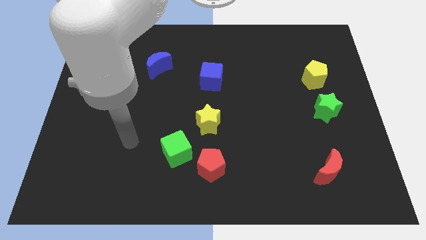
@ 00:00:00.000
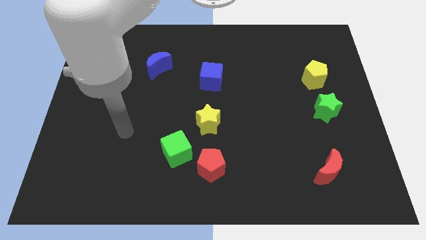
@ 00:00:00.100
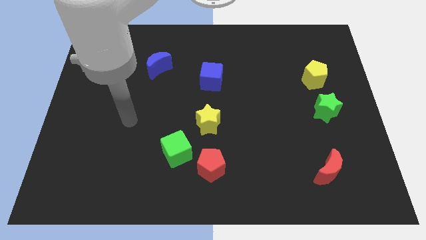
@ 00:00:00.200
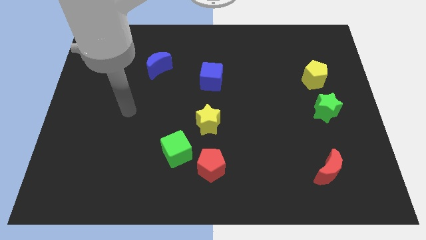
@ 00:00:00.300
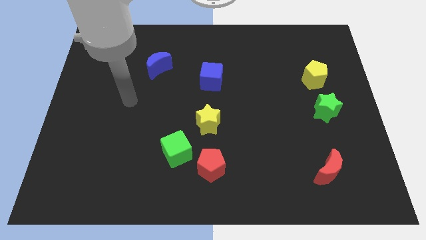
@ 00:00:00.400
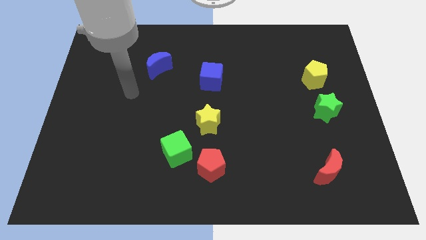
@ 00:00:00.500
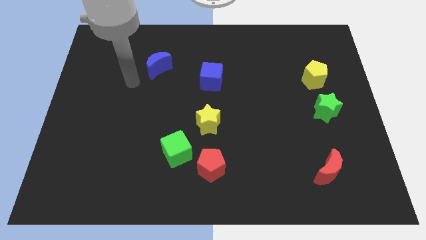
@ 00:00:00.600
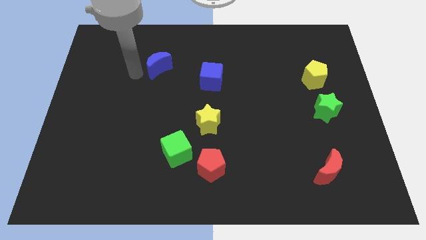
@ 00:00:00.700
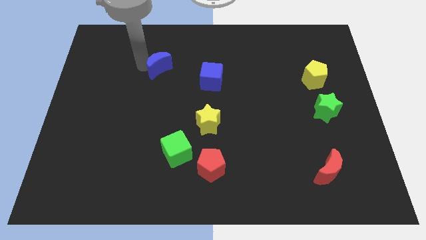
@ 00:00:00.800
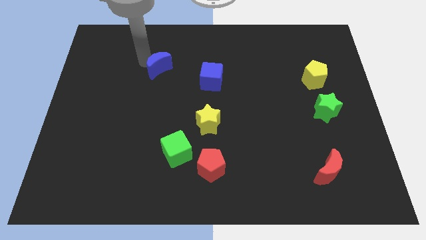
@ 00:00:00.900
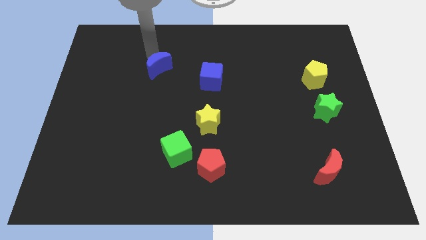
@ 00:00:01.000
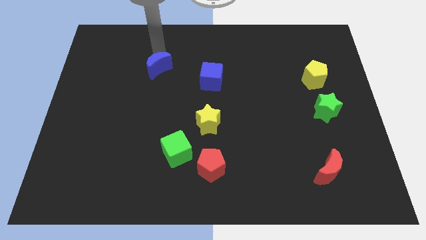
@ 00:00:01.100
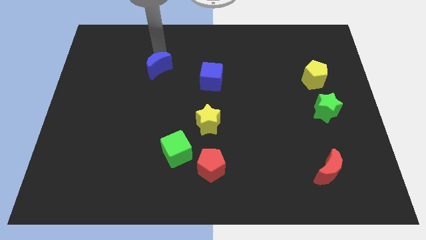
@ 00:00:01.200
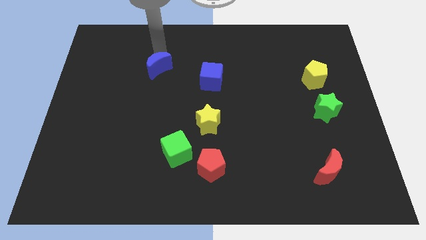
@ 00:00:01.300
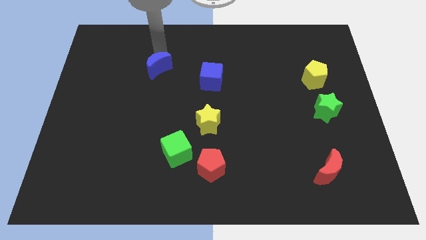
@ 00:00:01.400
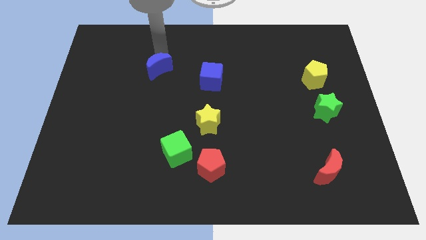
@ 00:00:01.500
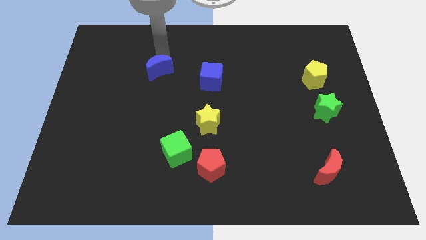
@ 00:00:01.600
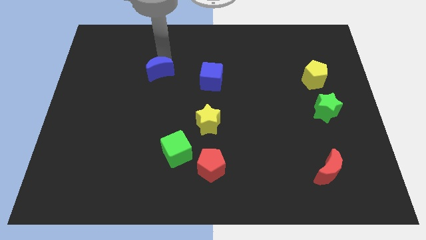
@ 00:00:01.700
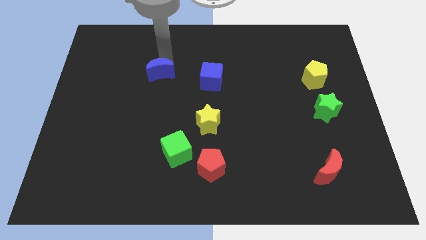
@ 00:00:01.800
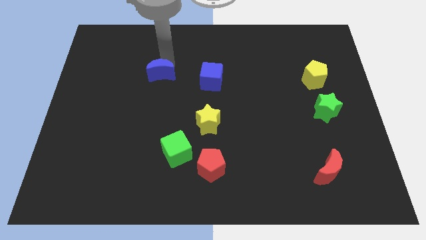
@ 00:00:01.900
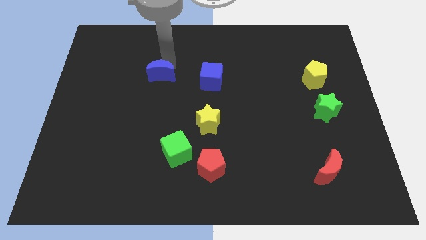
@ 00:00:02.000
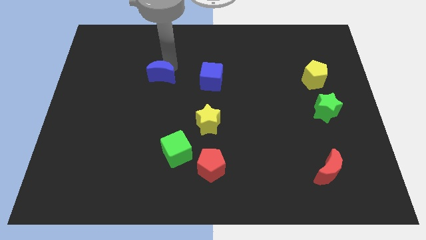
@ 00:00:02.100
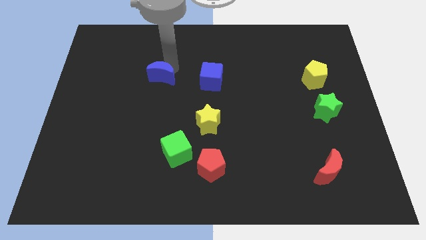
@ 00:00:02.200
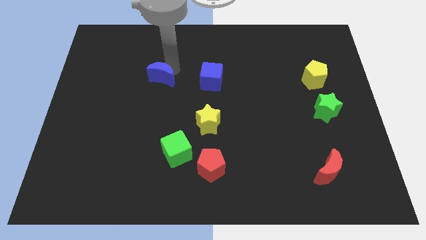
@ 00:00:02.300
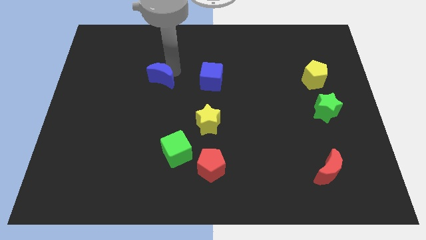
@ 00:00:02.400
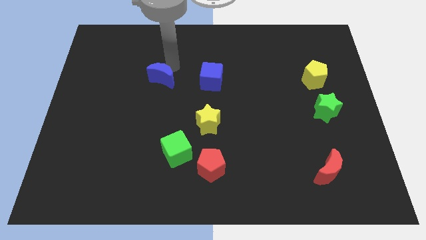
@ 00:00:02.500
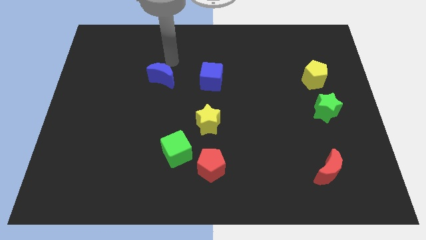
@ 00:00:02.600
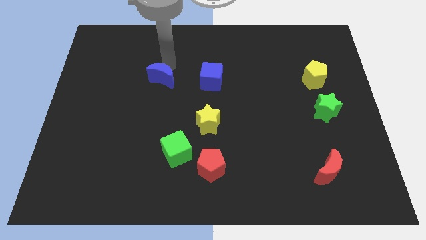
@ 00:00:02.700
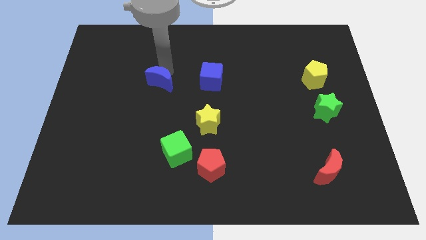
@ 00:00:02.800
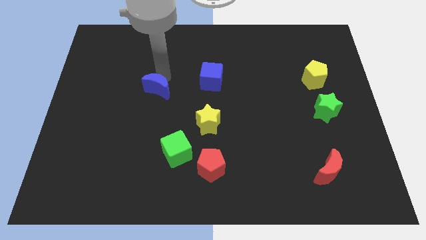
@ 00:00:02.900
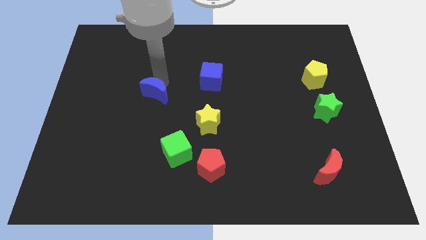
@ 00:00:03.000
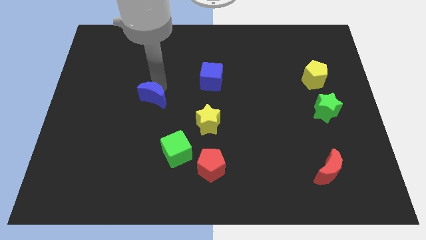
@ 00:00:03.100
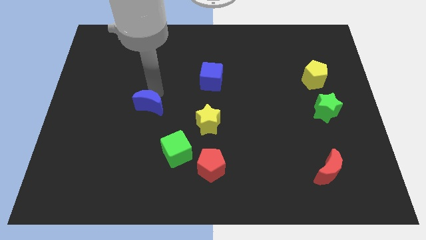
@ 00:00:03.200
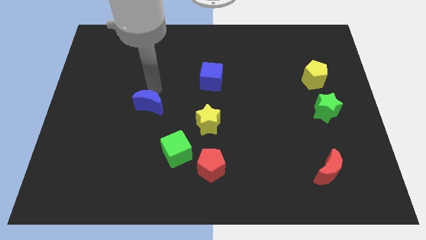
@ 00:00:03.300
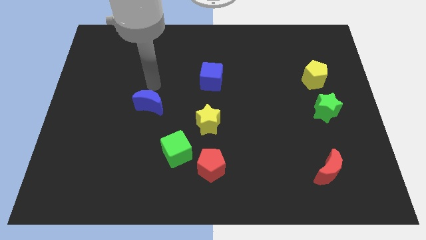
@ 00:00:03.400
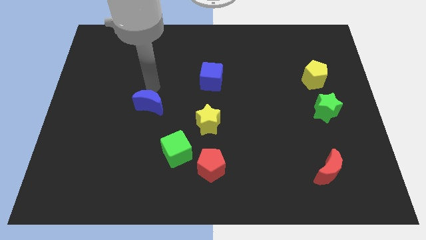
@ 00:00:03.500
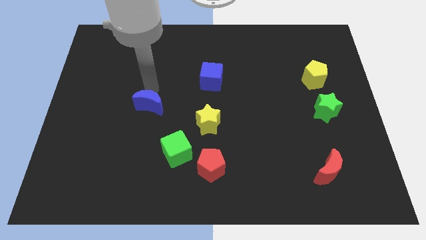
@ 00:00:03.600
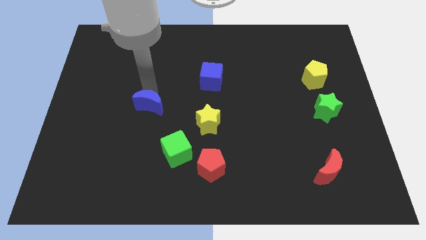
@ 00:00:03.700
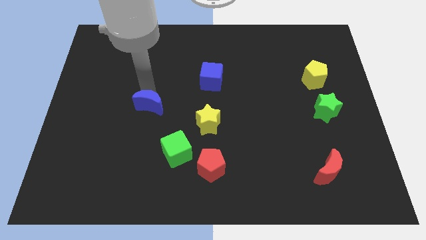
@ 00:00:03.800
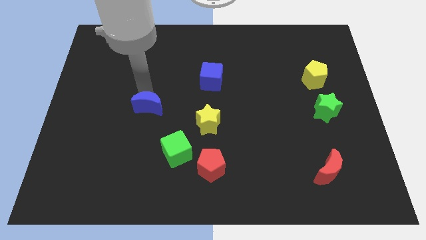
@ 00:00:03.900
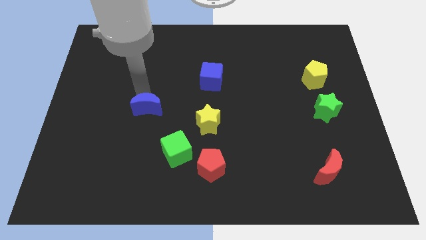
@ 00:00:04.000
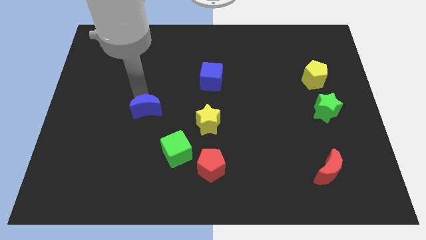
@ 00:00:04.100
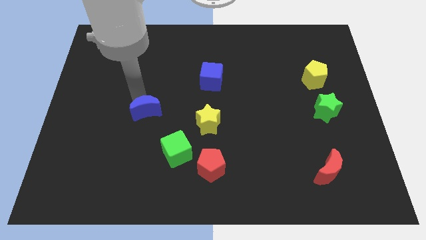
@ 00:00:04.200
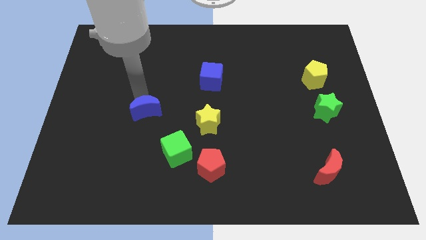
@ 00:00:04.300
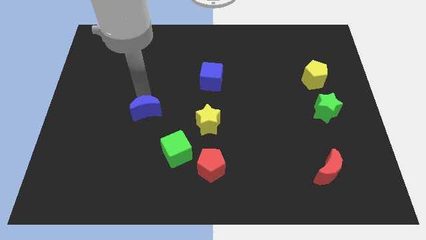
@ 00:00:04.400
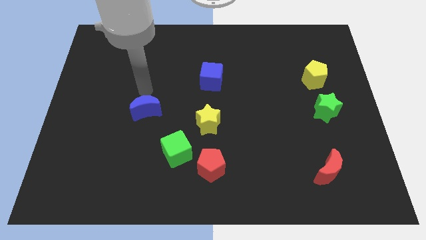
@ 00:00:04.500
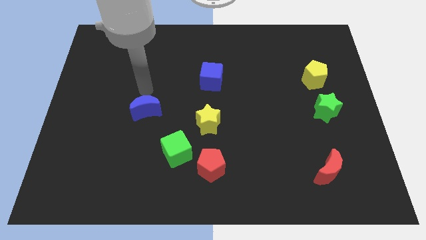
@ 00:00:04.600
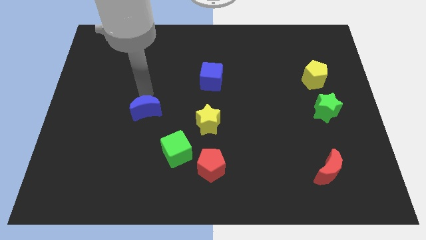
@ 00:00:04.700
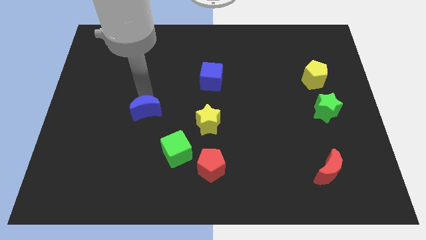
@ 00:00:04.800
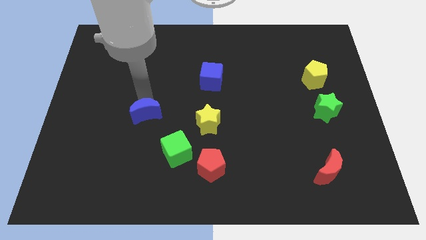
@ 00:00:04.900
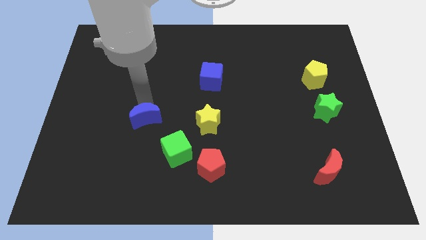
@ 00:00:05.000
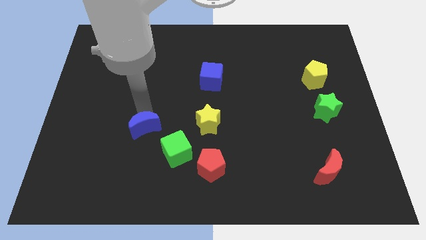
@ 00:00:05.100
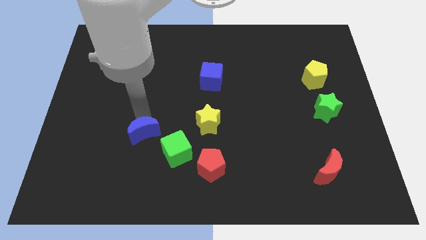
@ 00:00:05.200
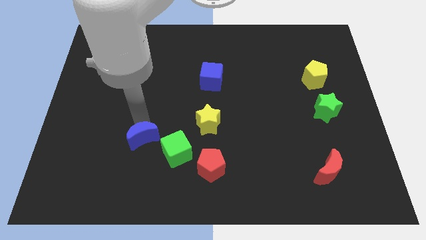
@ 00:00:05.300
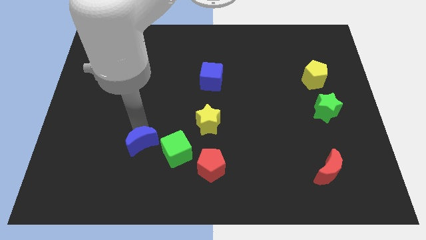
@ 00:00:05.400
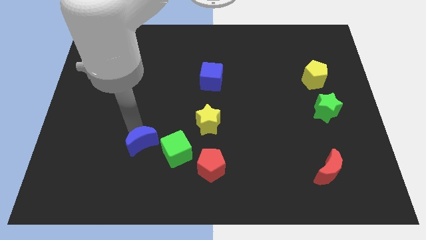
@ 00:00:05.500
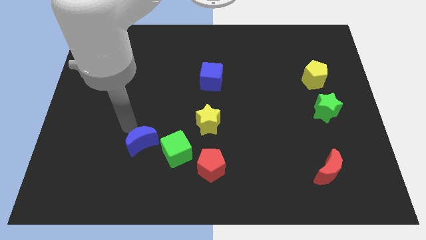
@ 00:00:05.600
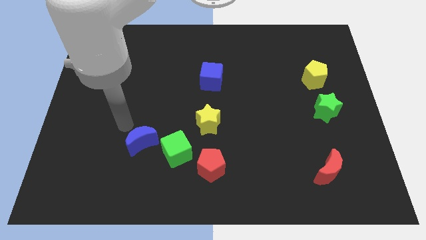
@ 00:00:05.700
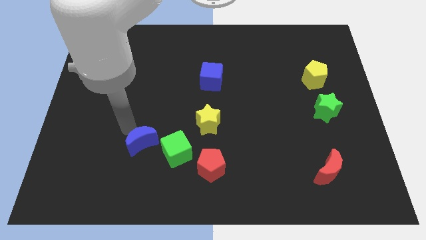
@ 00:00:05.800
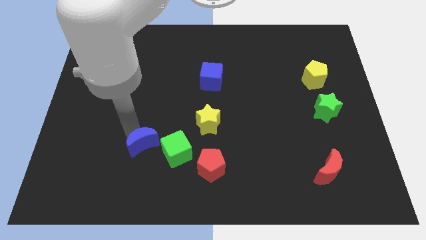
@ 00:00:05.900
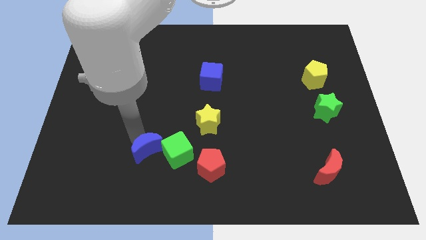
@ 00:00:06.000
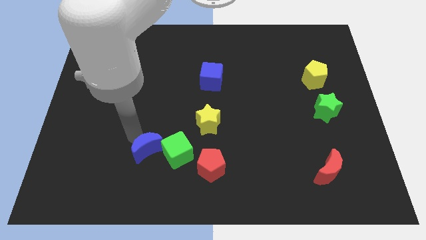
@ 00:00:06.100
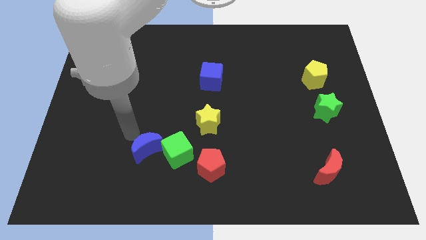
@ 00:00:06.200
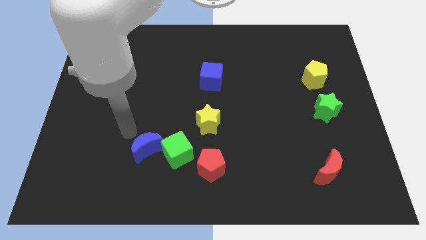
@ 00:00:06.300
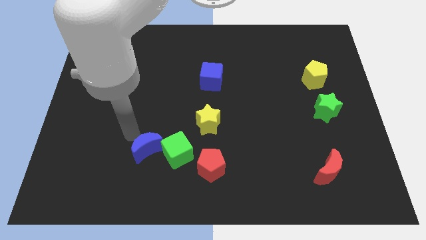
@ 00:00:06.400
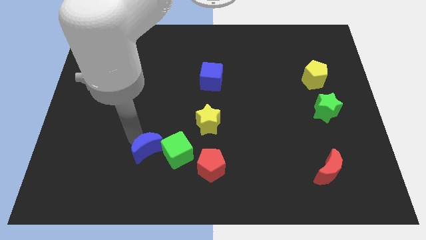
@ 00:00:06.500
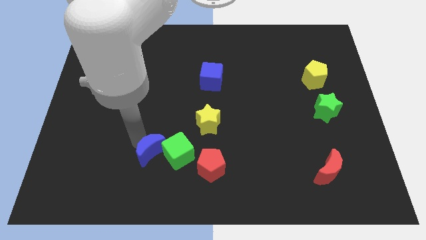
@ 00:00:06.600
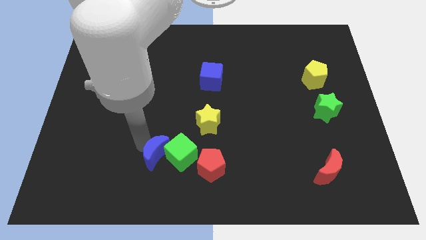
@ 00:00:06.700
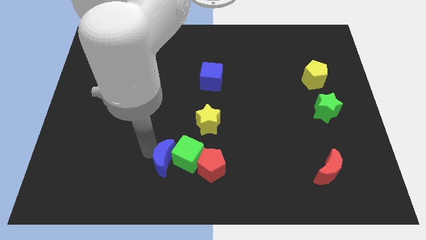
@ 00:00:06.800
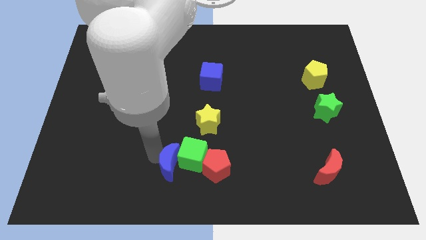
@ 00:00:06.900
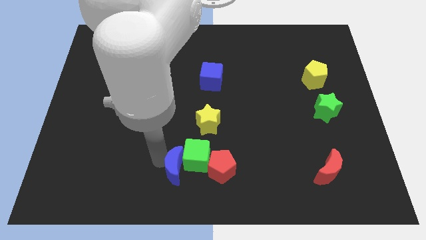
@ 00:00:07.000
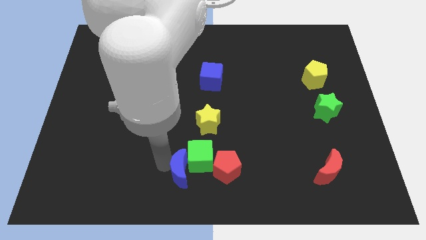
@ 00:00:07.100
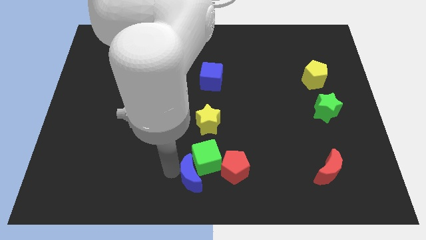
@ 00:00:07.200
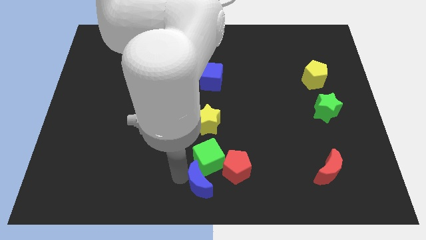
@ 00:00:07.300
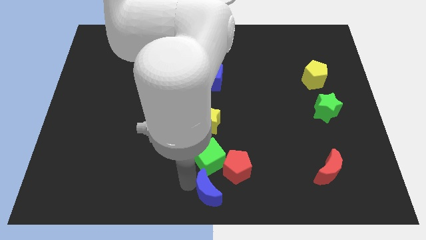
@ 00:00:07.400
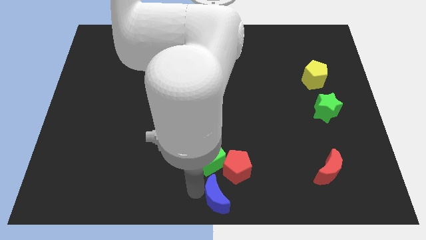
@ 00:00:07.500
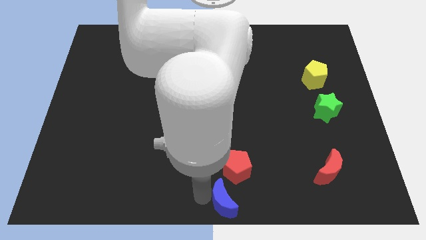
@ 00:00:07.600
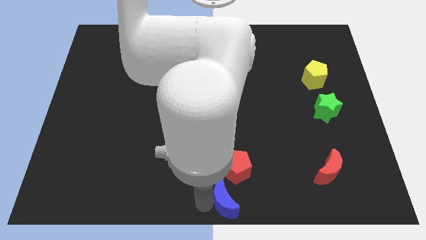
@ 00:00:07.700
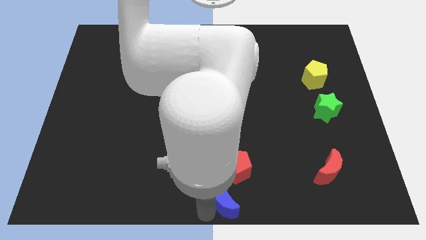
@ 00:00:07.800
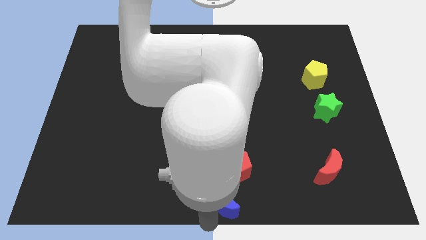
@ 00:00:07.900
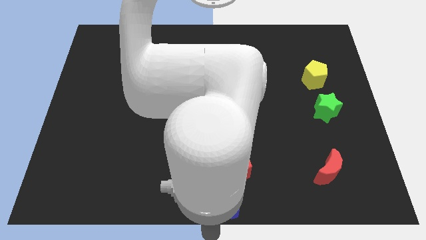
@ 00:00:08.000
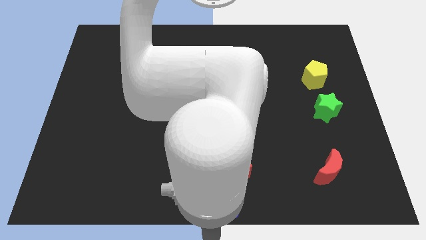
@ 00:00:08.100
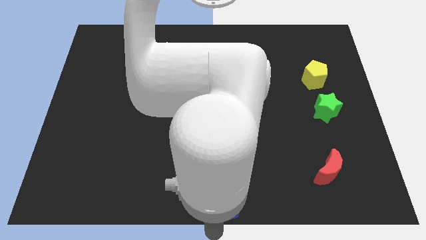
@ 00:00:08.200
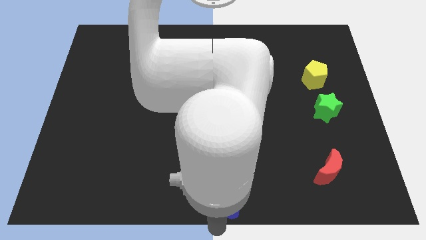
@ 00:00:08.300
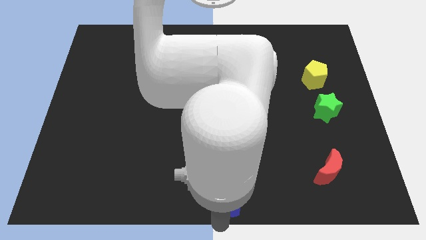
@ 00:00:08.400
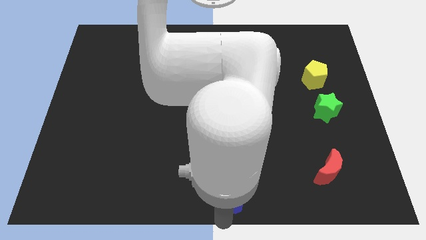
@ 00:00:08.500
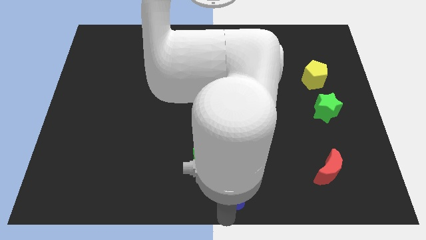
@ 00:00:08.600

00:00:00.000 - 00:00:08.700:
slide the blue moon towards the red pentagon
